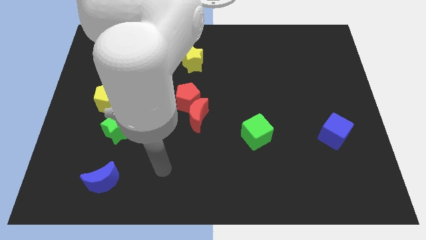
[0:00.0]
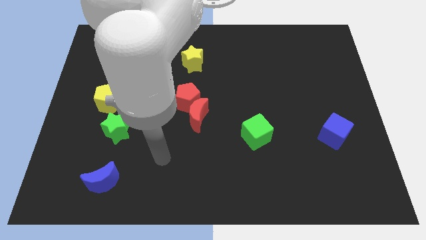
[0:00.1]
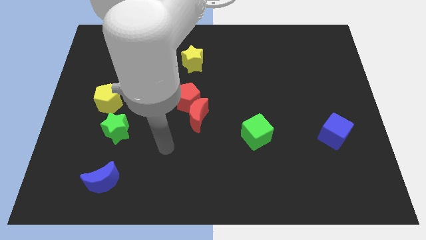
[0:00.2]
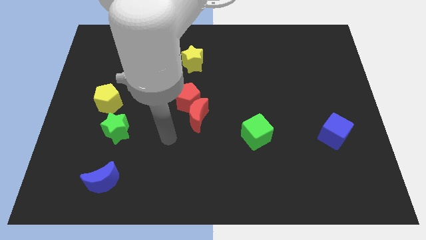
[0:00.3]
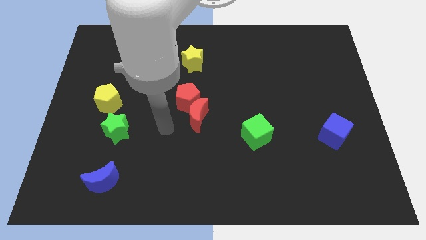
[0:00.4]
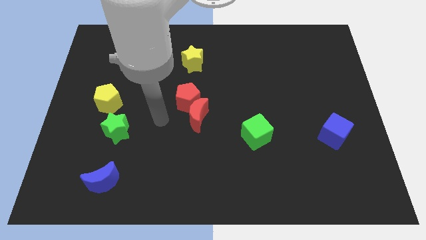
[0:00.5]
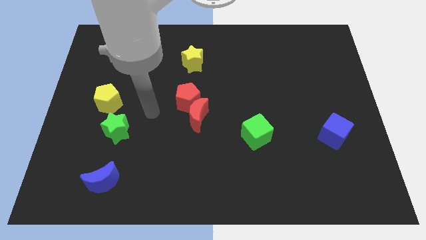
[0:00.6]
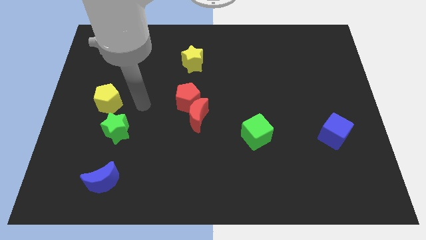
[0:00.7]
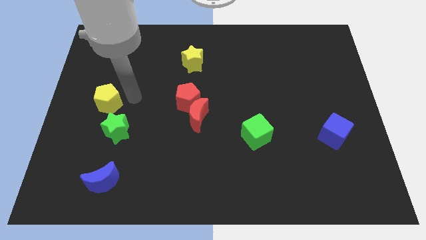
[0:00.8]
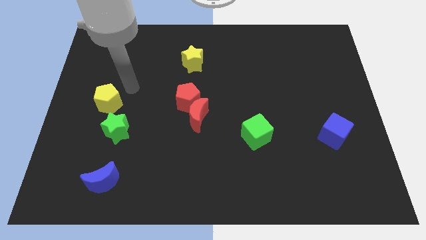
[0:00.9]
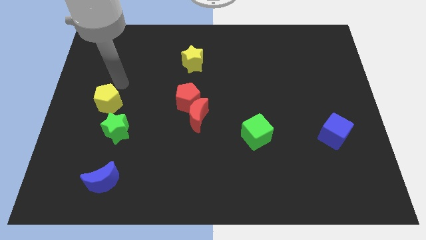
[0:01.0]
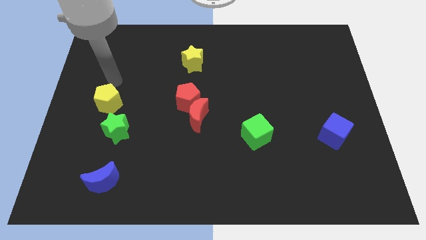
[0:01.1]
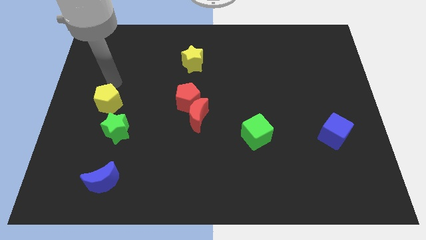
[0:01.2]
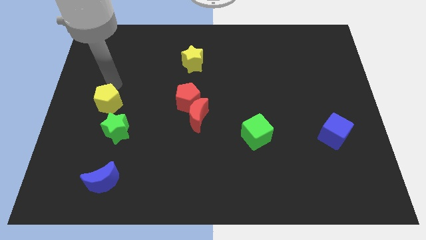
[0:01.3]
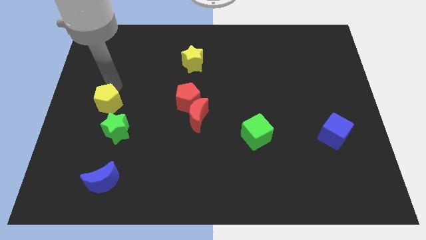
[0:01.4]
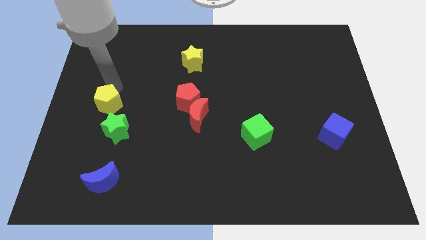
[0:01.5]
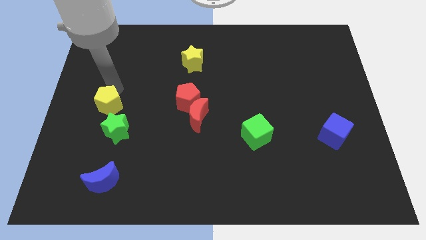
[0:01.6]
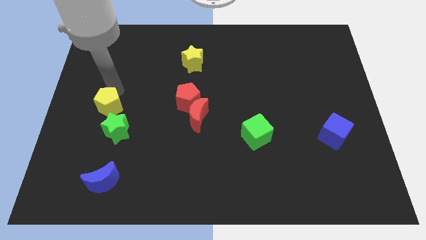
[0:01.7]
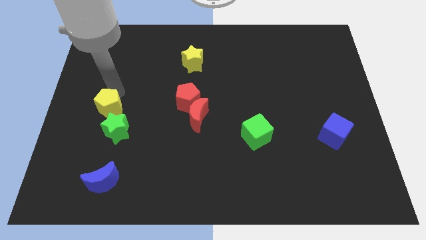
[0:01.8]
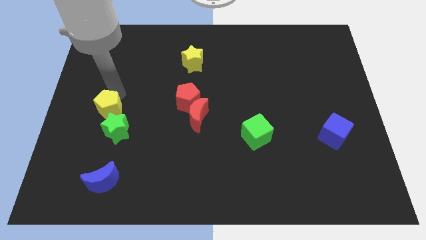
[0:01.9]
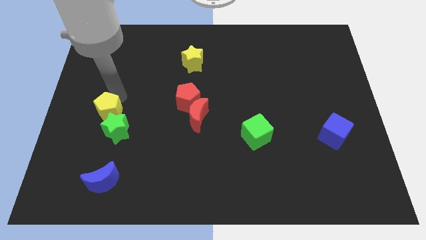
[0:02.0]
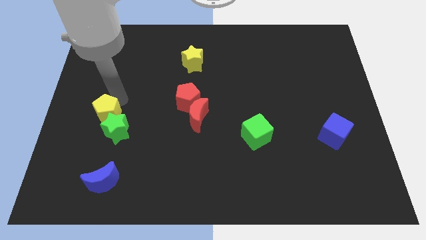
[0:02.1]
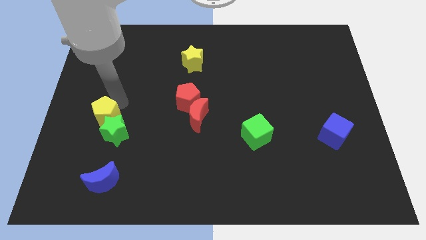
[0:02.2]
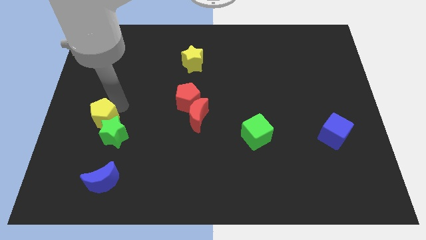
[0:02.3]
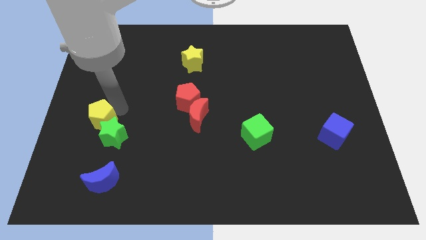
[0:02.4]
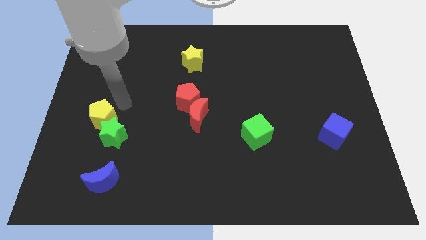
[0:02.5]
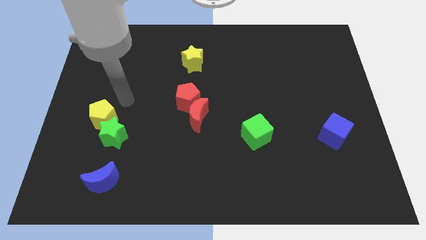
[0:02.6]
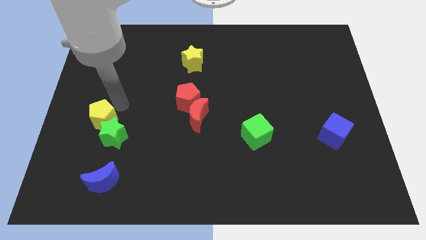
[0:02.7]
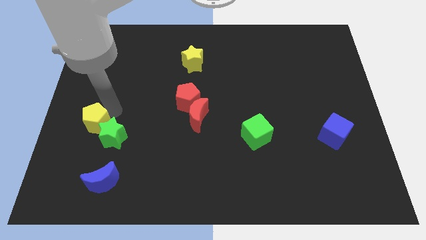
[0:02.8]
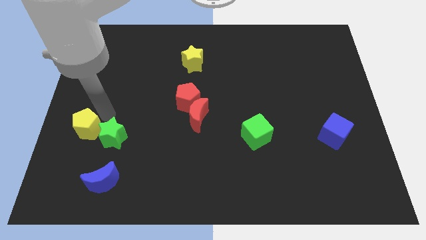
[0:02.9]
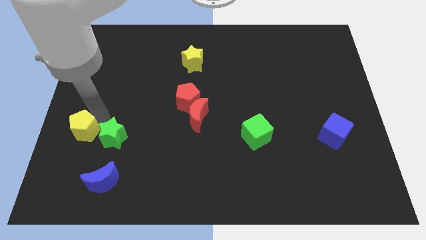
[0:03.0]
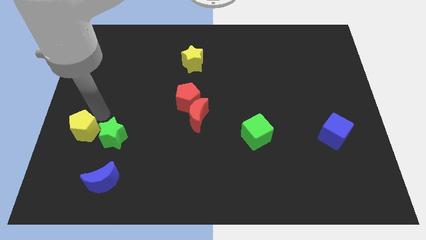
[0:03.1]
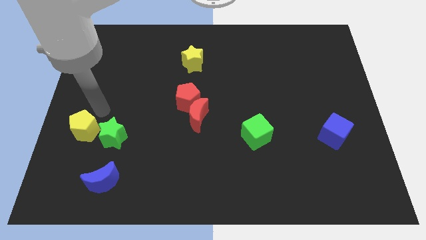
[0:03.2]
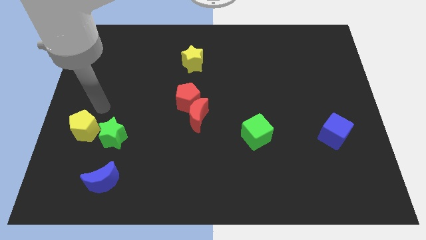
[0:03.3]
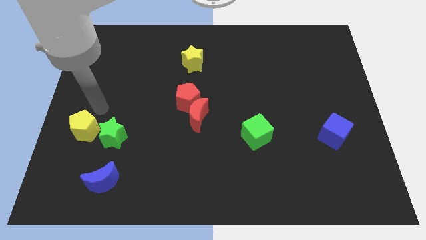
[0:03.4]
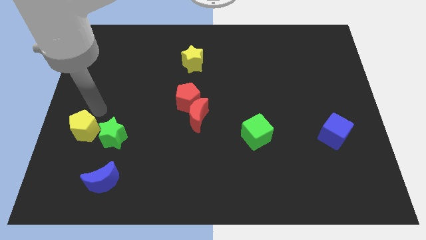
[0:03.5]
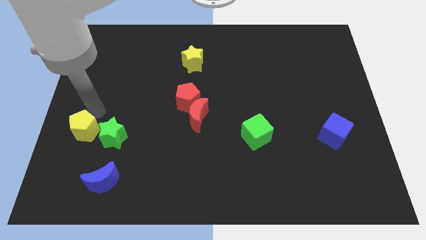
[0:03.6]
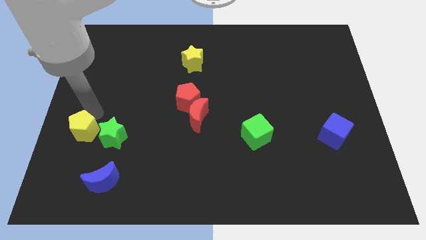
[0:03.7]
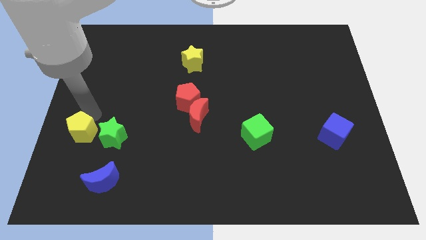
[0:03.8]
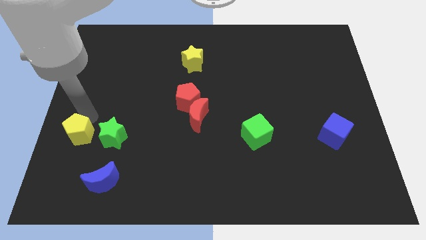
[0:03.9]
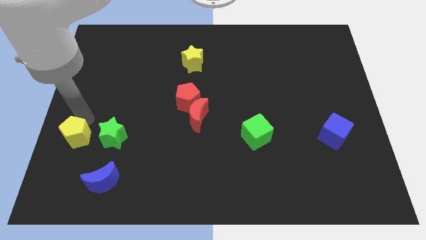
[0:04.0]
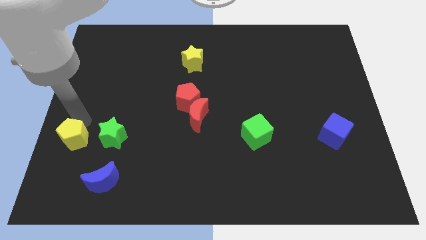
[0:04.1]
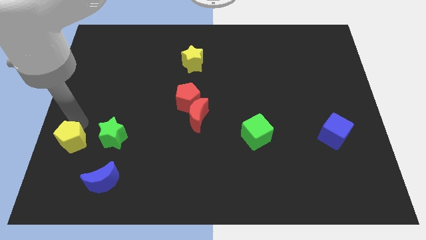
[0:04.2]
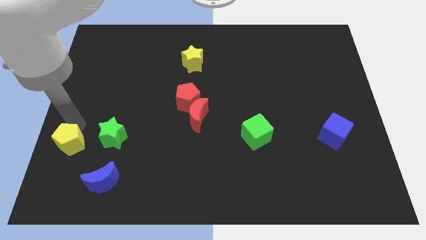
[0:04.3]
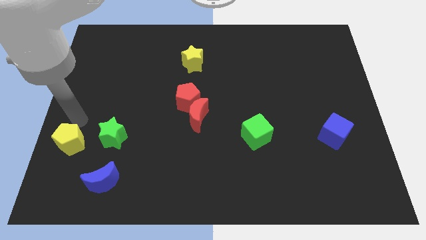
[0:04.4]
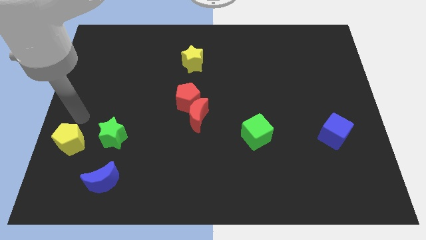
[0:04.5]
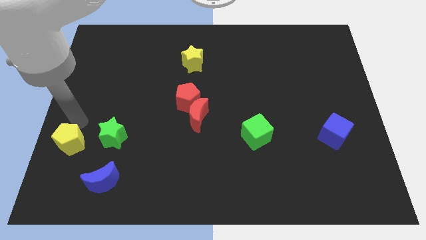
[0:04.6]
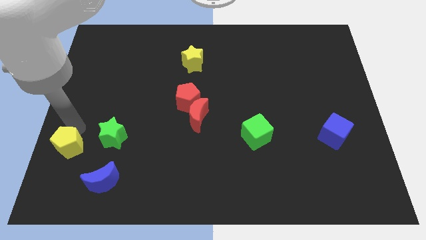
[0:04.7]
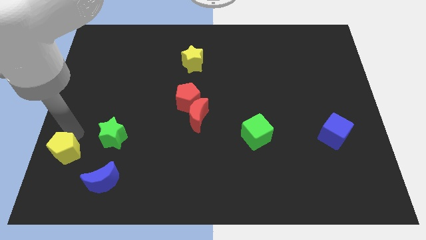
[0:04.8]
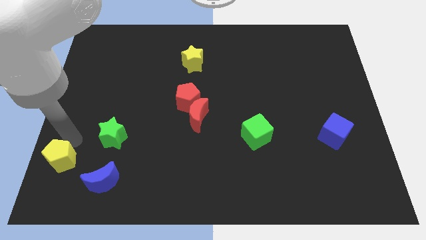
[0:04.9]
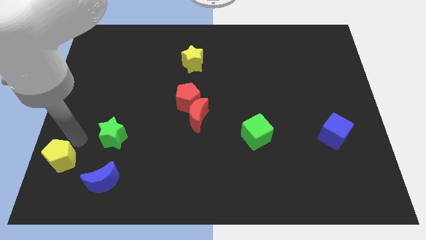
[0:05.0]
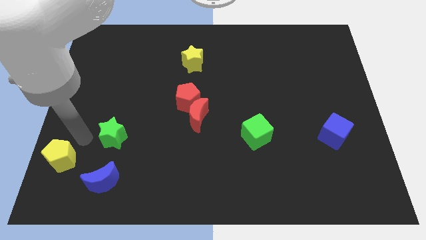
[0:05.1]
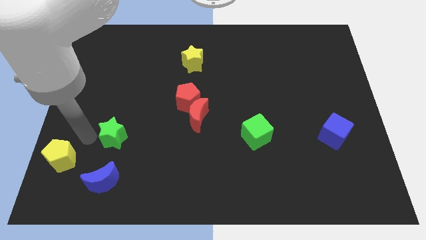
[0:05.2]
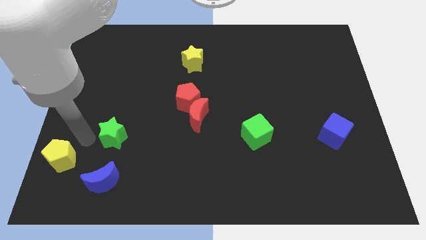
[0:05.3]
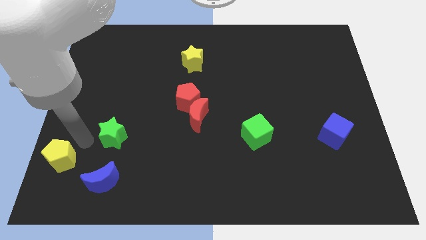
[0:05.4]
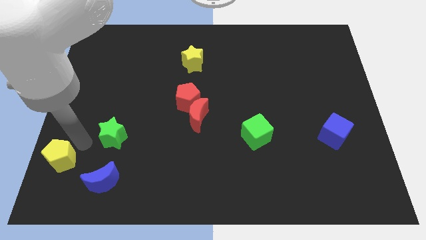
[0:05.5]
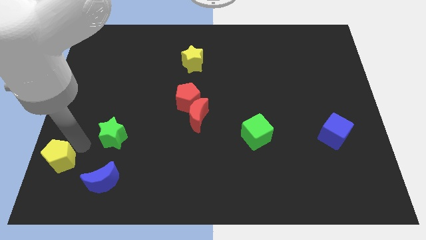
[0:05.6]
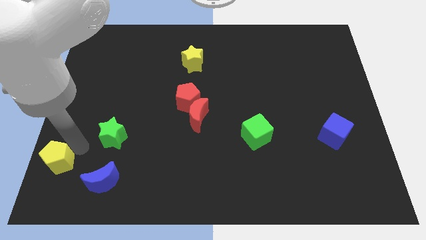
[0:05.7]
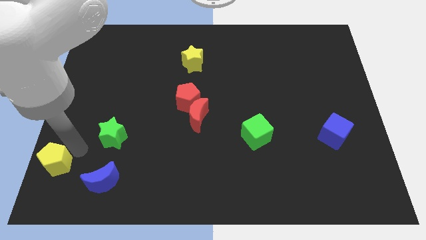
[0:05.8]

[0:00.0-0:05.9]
move the yellow pentagon to the bottom left

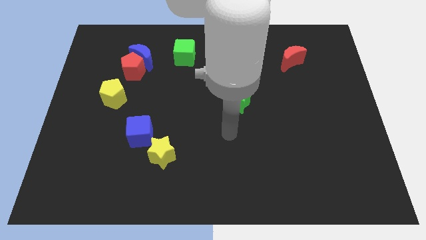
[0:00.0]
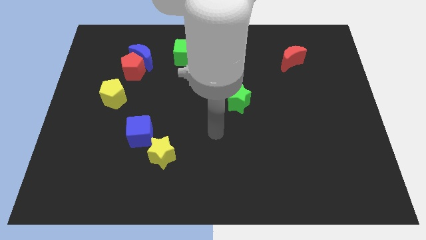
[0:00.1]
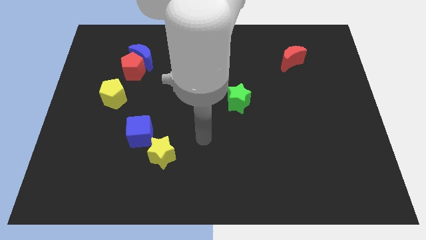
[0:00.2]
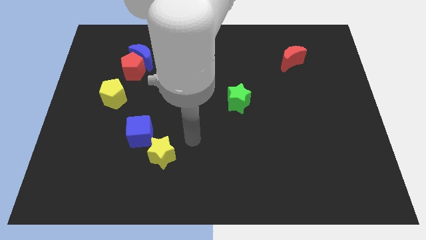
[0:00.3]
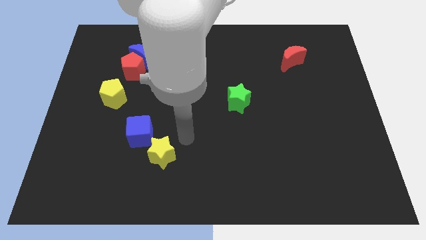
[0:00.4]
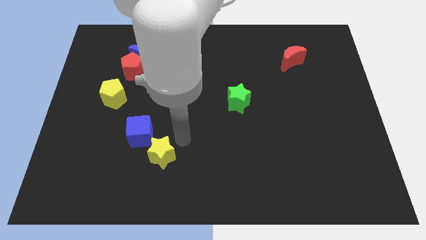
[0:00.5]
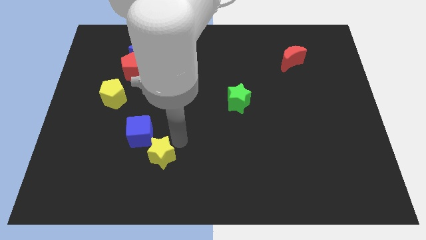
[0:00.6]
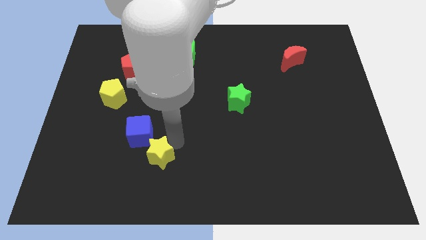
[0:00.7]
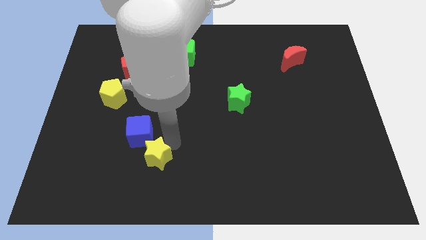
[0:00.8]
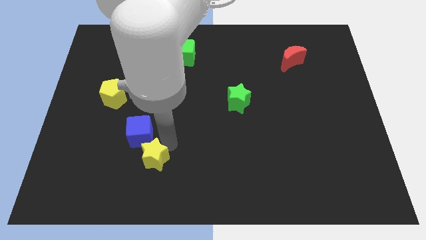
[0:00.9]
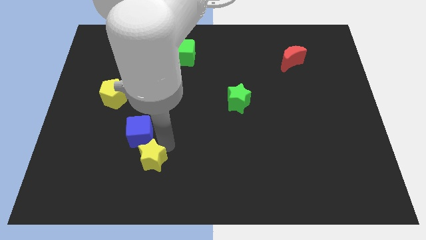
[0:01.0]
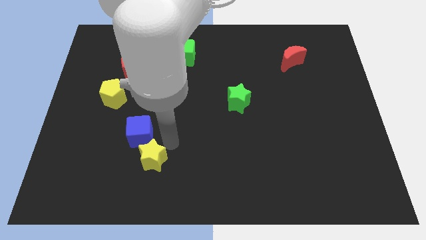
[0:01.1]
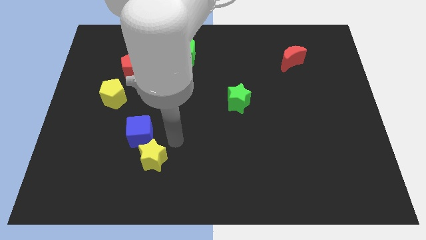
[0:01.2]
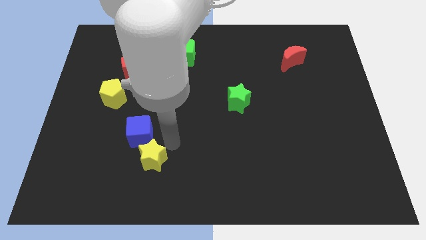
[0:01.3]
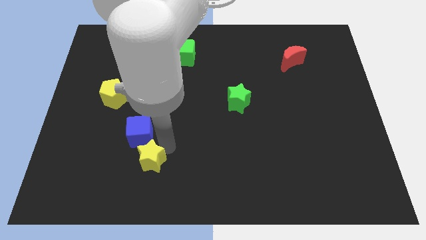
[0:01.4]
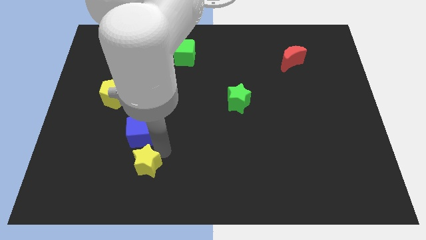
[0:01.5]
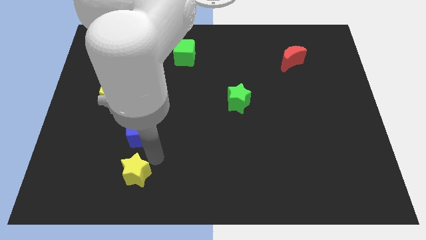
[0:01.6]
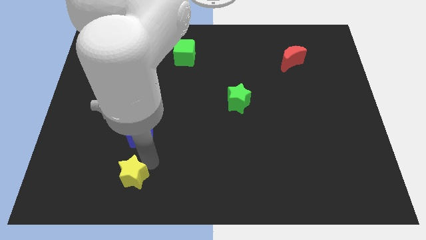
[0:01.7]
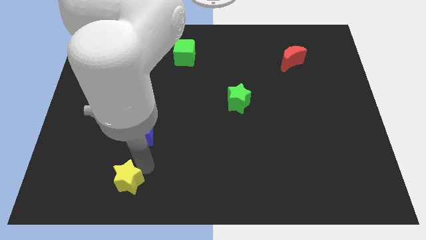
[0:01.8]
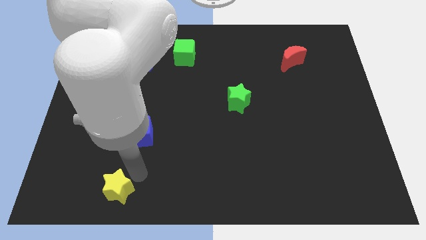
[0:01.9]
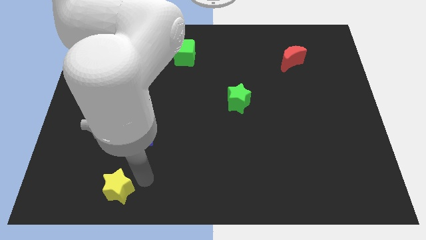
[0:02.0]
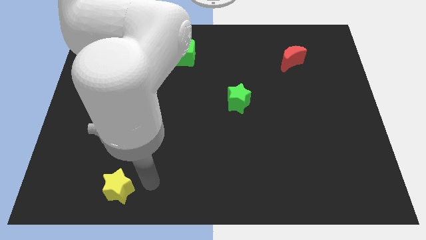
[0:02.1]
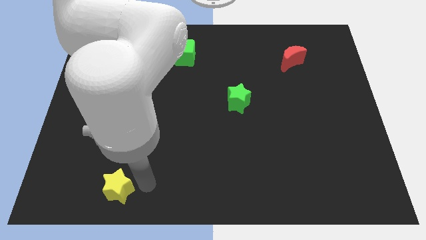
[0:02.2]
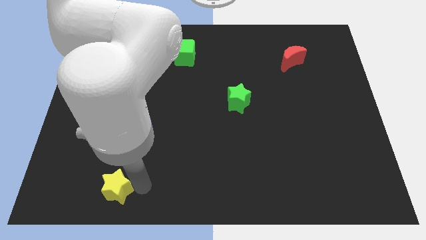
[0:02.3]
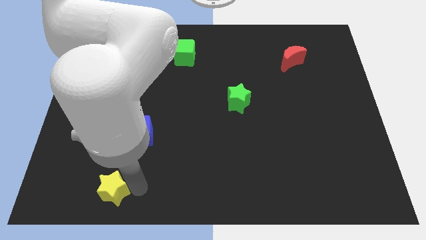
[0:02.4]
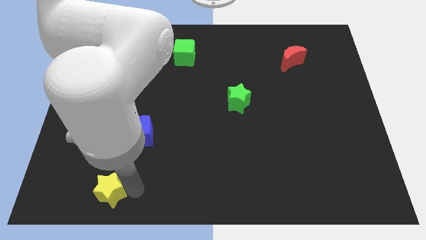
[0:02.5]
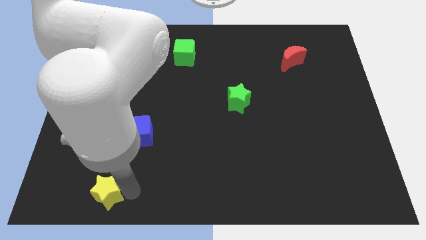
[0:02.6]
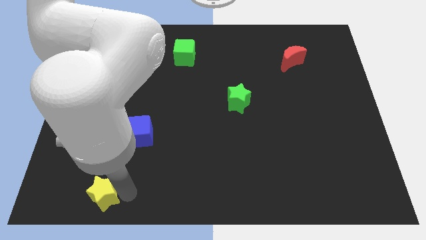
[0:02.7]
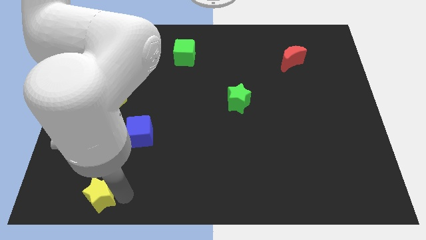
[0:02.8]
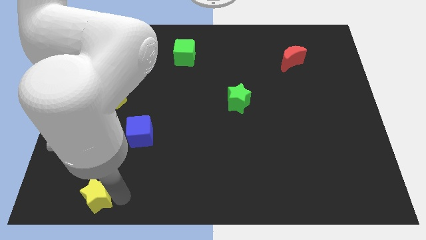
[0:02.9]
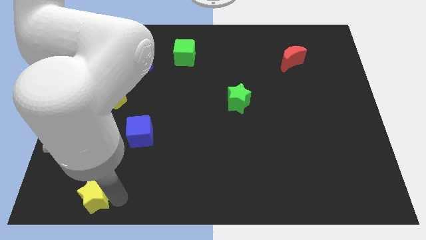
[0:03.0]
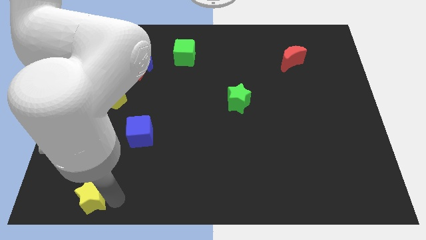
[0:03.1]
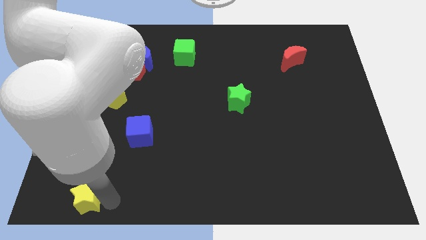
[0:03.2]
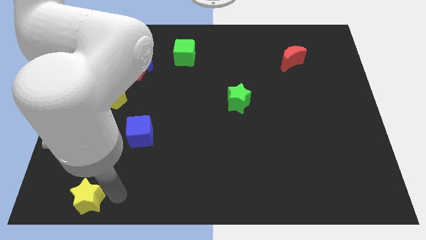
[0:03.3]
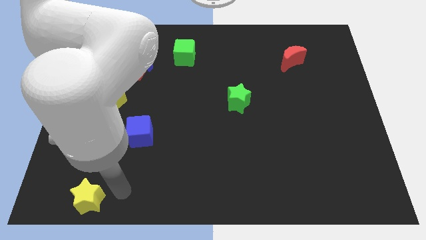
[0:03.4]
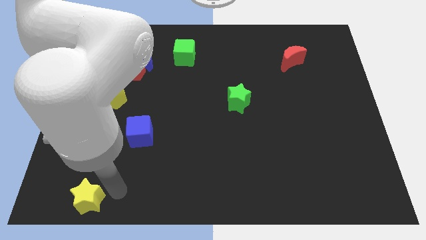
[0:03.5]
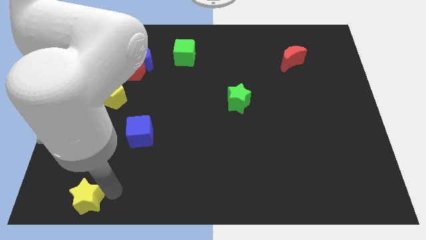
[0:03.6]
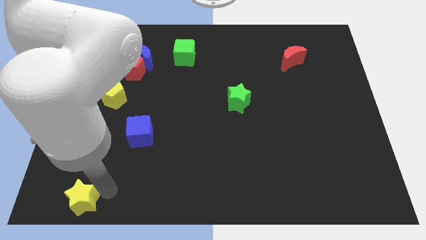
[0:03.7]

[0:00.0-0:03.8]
move the yellow star to the bottom left of the board
